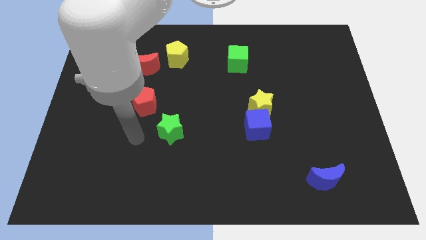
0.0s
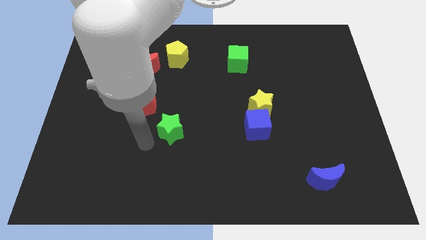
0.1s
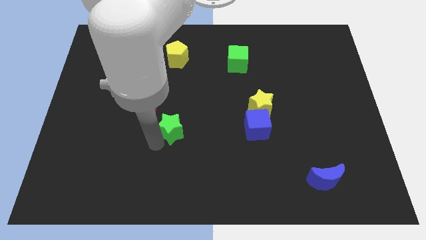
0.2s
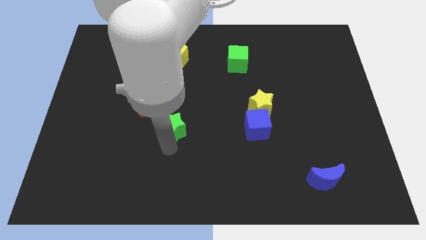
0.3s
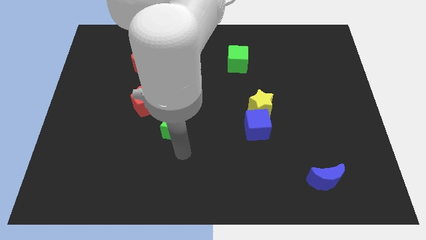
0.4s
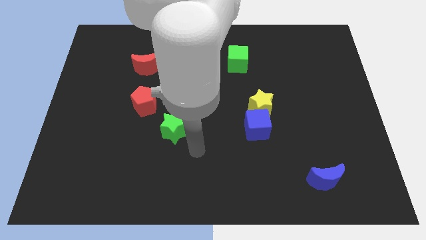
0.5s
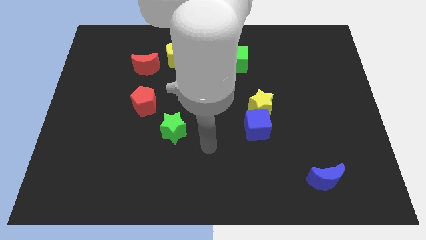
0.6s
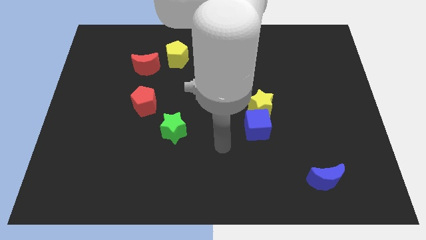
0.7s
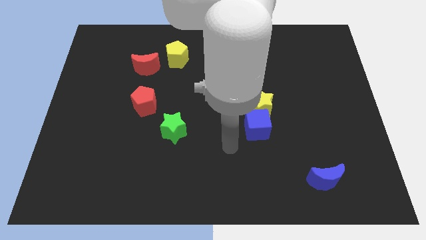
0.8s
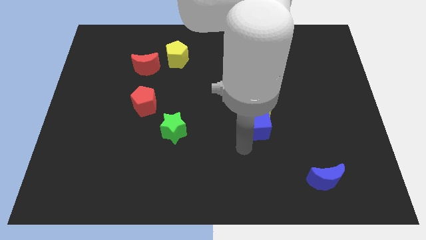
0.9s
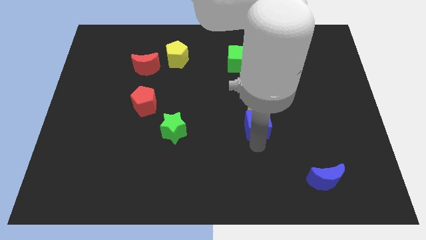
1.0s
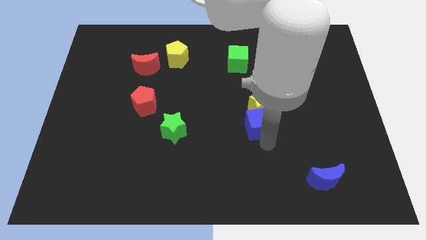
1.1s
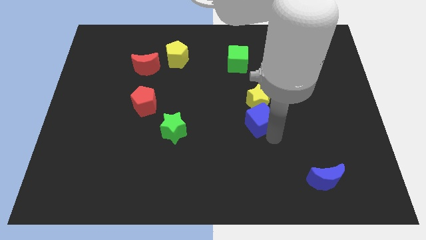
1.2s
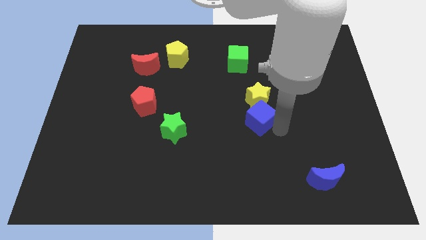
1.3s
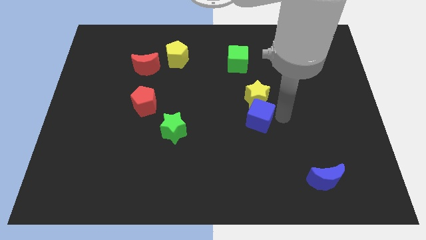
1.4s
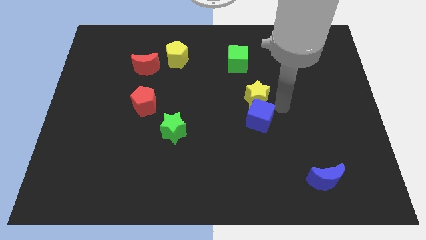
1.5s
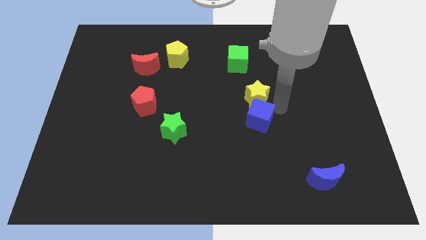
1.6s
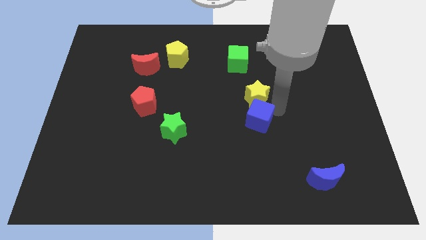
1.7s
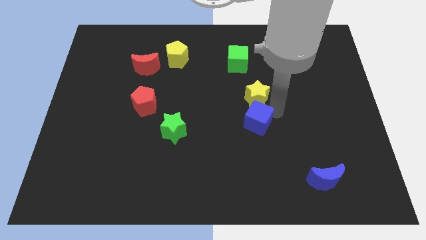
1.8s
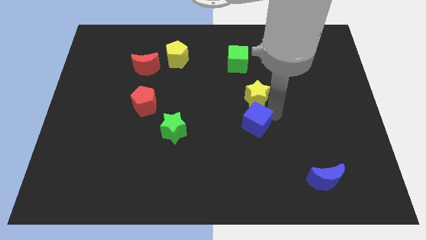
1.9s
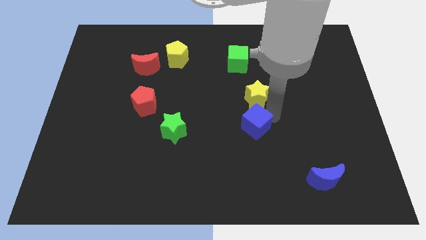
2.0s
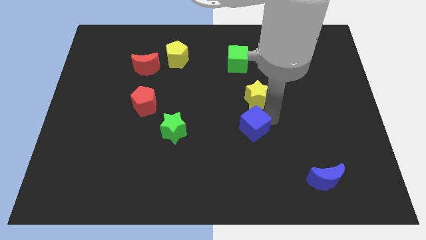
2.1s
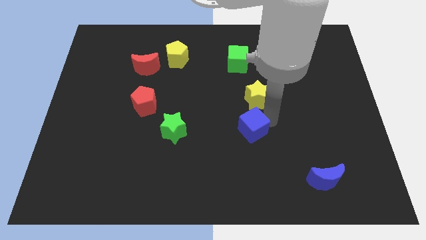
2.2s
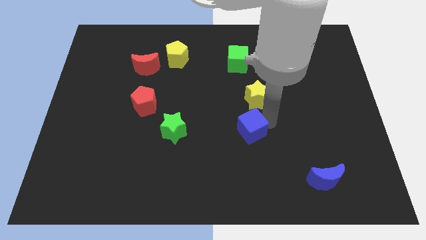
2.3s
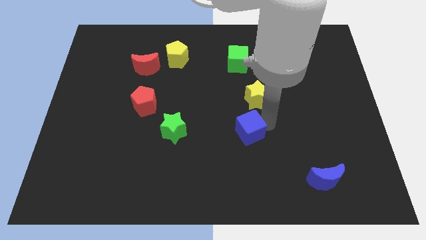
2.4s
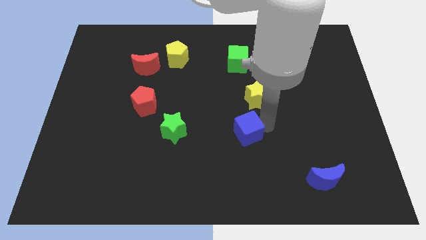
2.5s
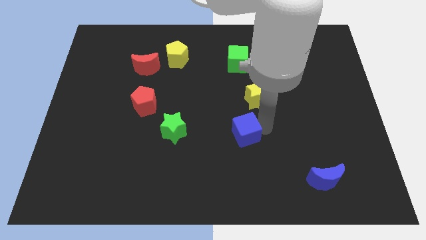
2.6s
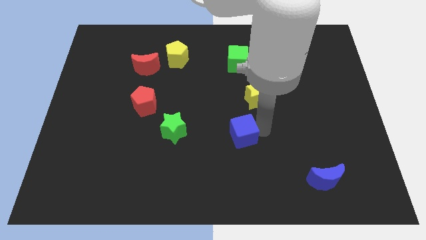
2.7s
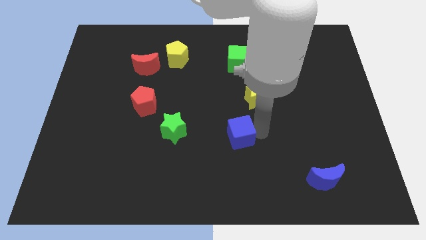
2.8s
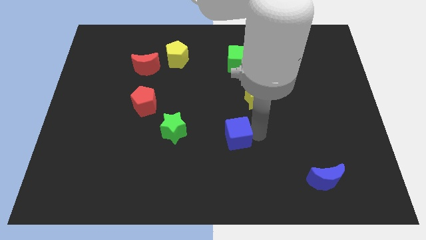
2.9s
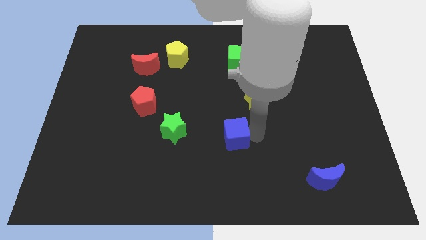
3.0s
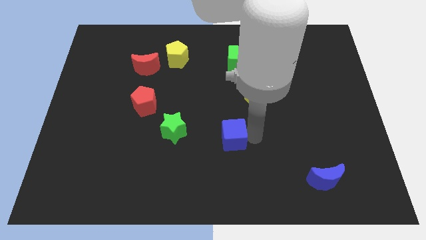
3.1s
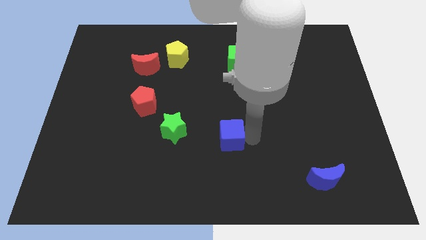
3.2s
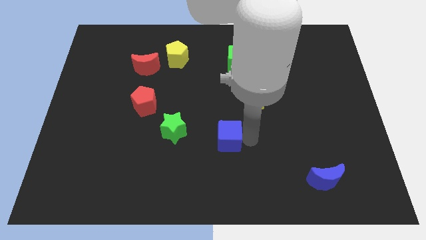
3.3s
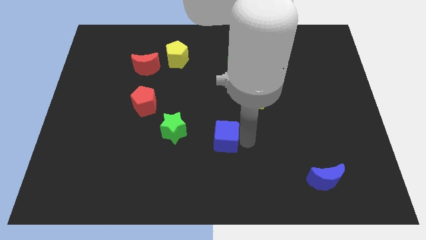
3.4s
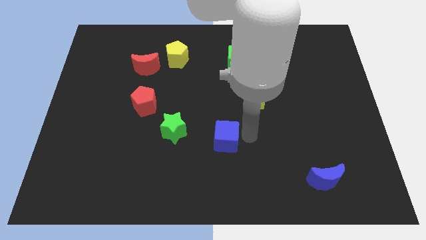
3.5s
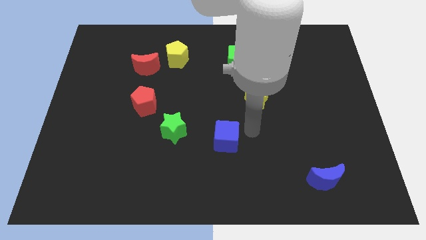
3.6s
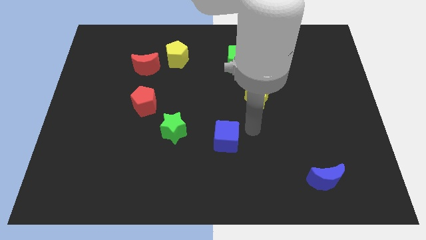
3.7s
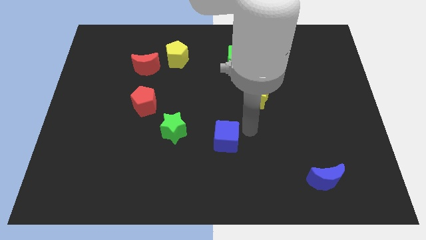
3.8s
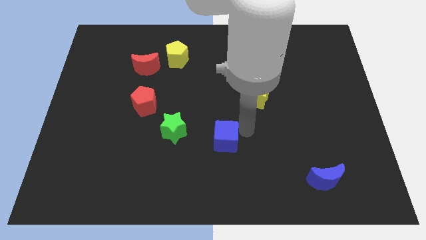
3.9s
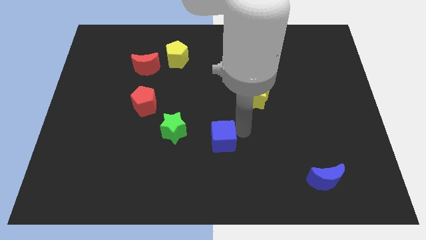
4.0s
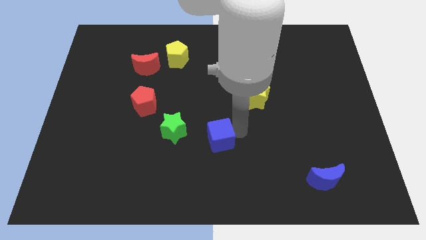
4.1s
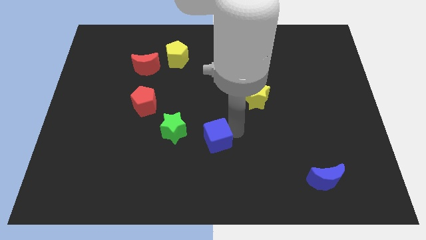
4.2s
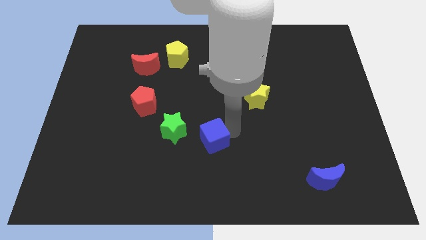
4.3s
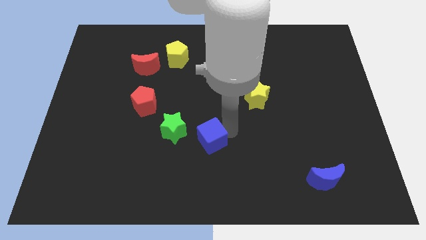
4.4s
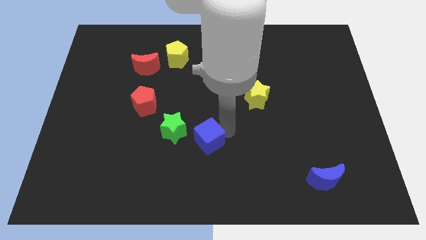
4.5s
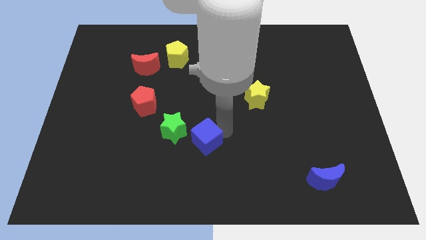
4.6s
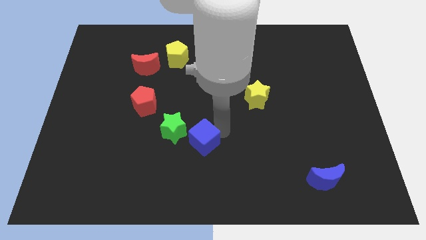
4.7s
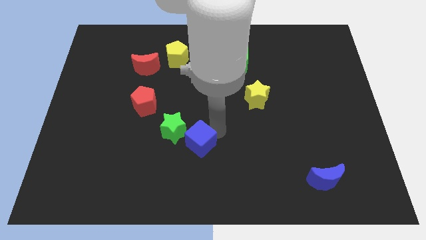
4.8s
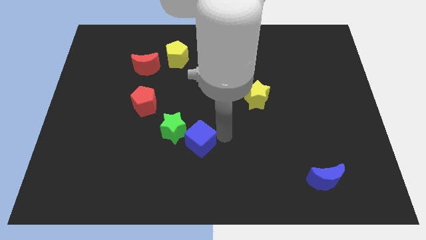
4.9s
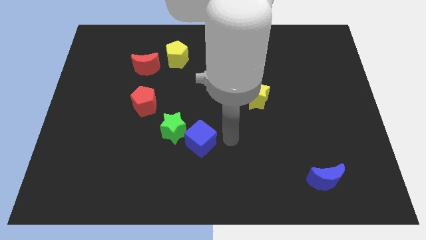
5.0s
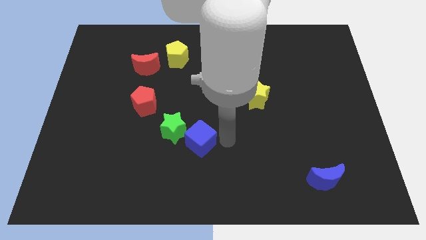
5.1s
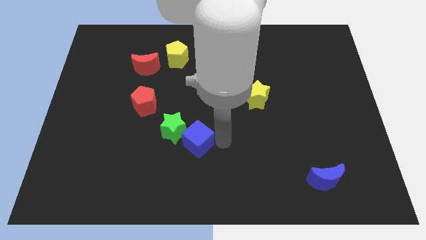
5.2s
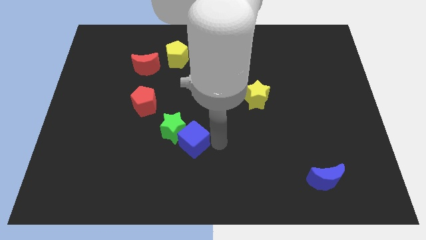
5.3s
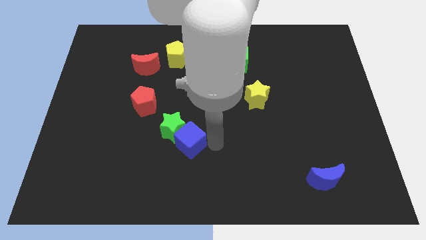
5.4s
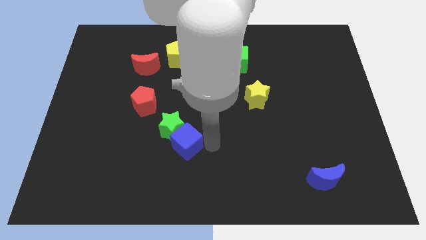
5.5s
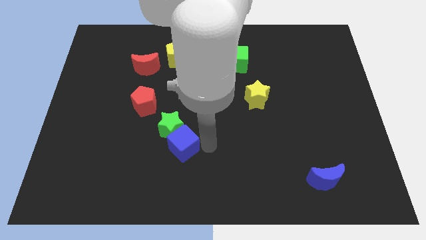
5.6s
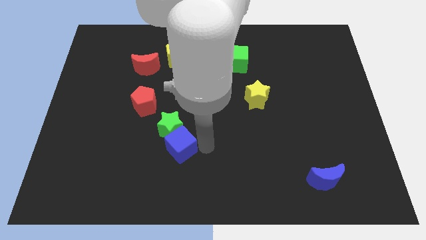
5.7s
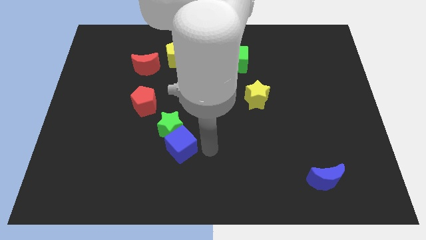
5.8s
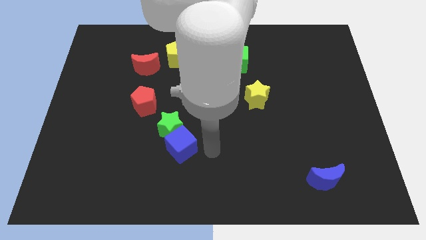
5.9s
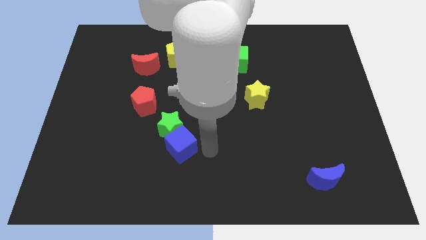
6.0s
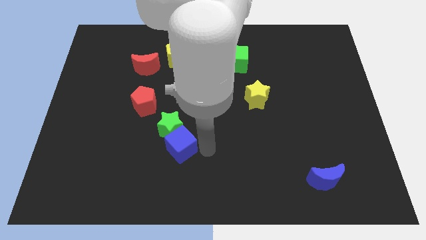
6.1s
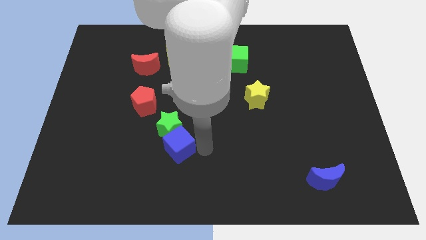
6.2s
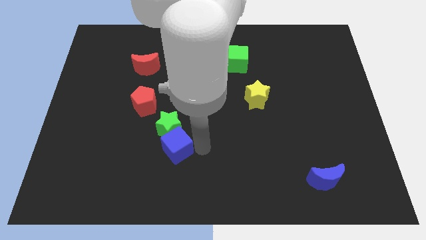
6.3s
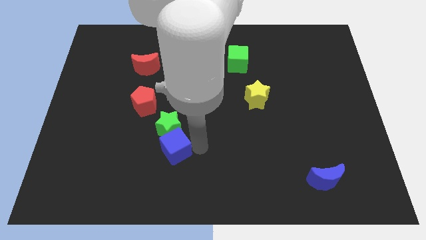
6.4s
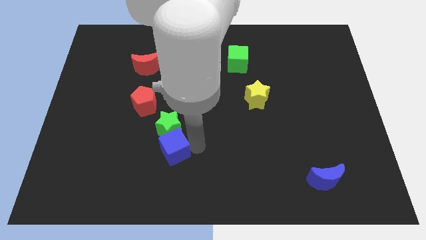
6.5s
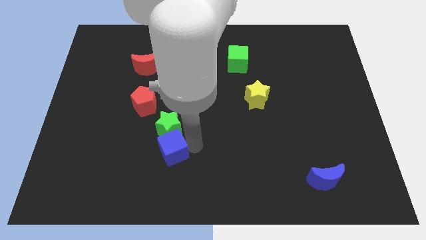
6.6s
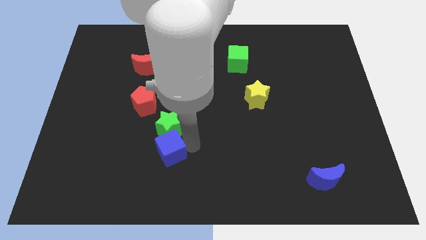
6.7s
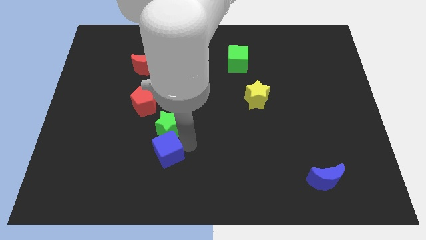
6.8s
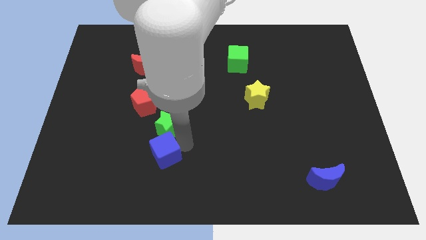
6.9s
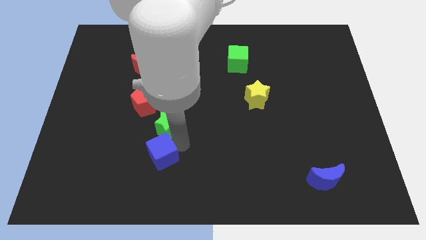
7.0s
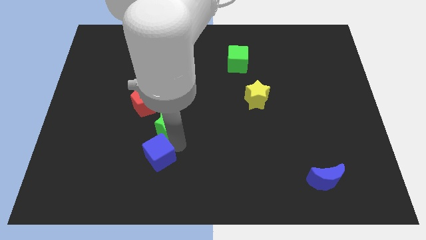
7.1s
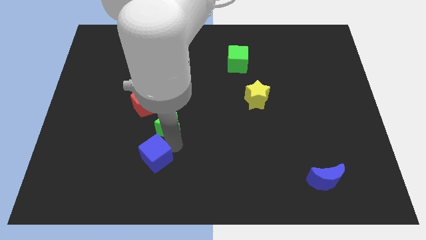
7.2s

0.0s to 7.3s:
put the blue cube to the bottom of the red pentagon
